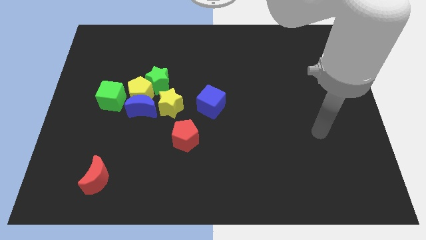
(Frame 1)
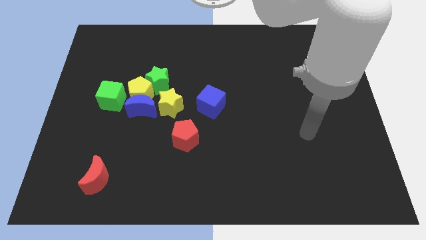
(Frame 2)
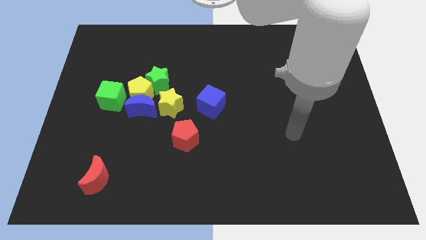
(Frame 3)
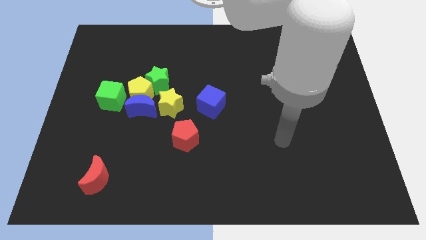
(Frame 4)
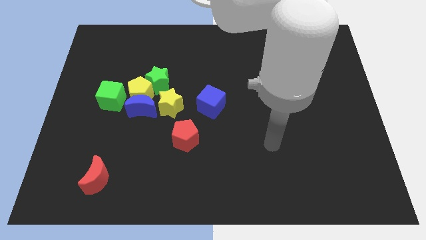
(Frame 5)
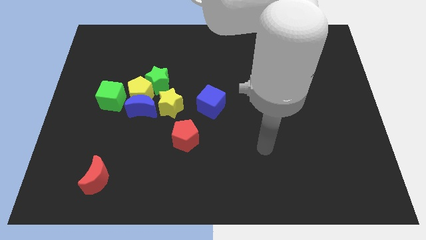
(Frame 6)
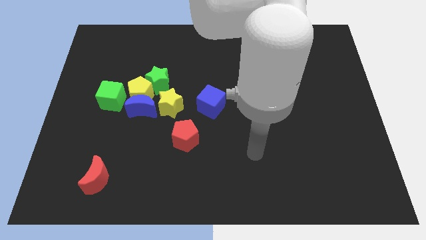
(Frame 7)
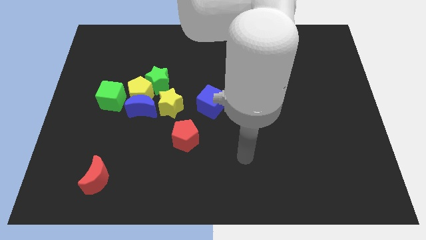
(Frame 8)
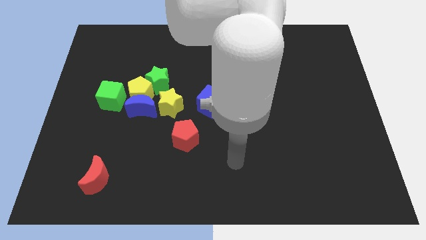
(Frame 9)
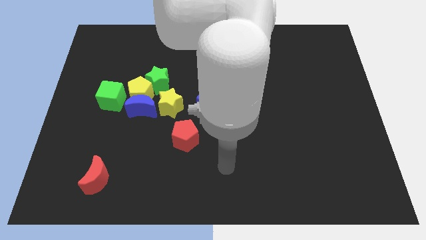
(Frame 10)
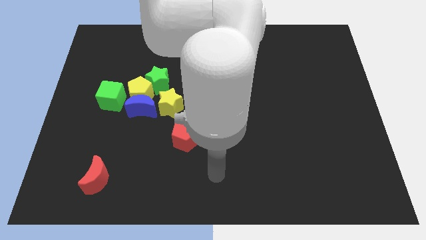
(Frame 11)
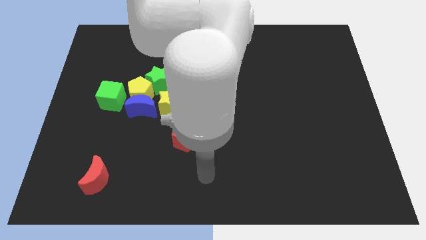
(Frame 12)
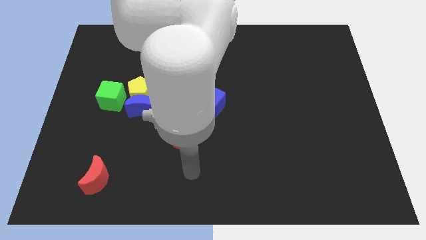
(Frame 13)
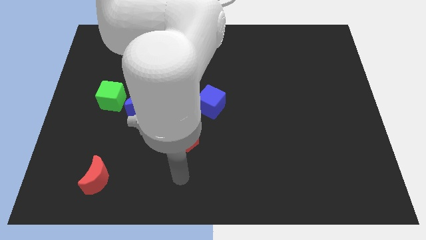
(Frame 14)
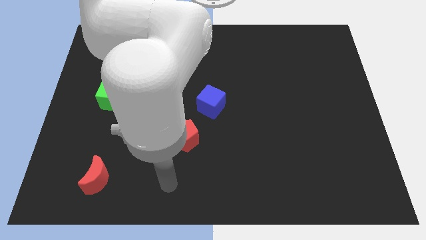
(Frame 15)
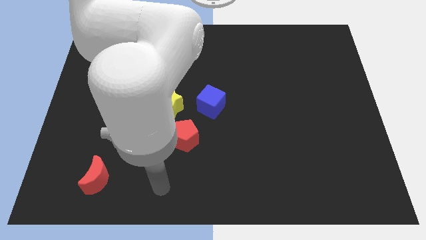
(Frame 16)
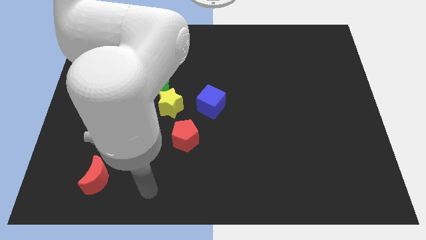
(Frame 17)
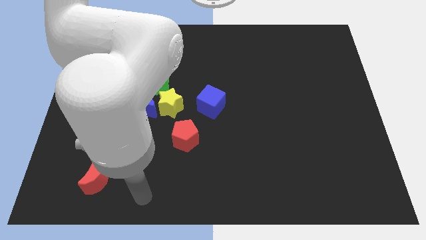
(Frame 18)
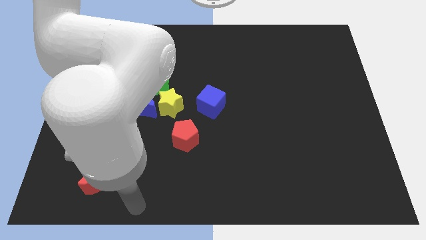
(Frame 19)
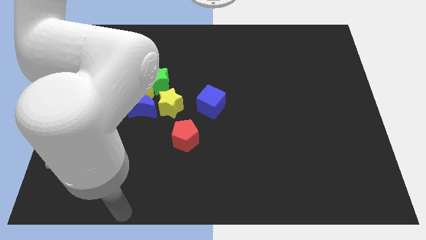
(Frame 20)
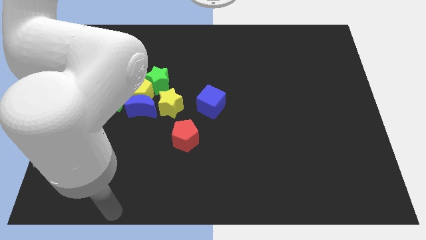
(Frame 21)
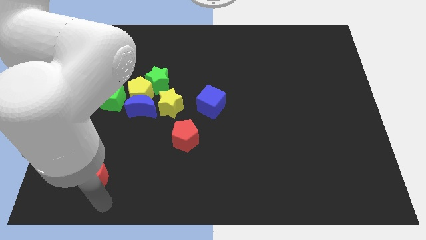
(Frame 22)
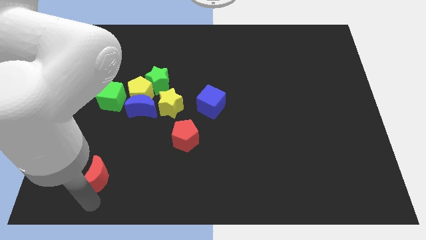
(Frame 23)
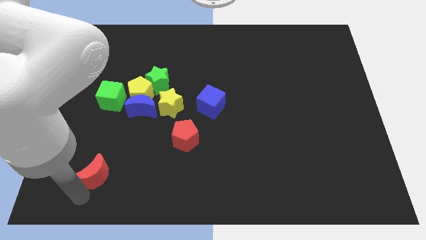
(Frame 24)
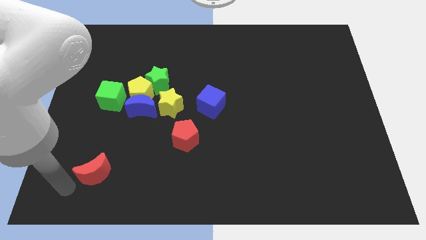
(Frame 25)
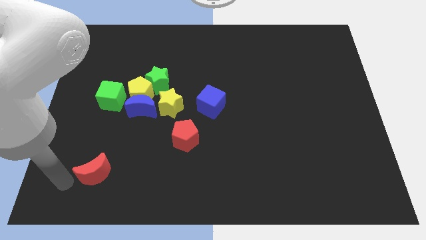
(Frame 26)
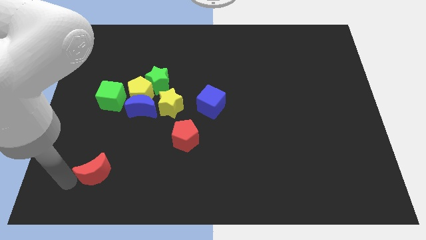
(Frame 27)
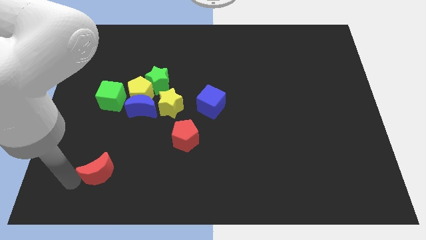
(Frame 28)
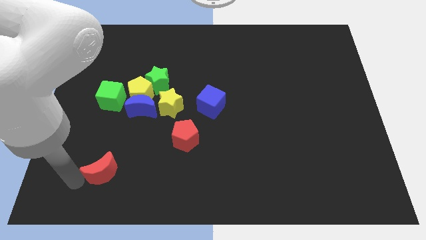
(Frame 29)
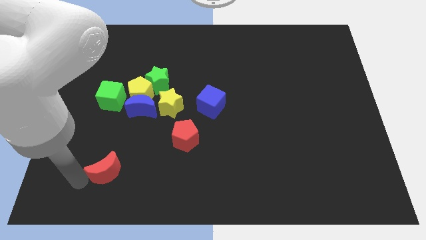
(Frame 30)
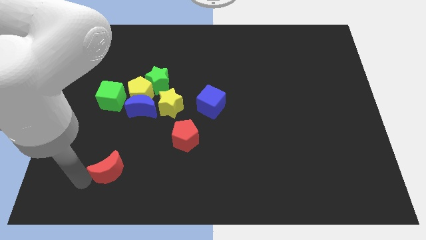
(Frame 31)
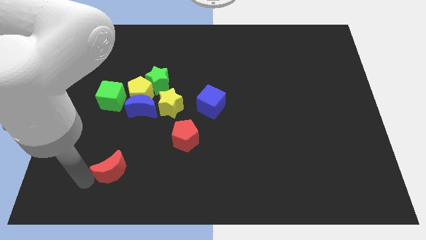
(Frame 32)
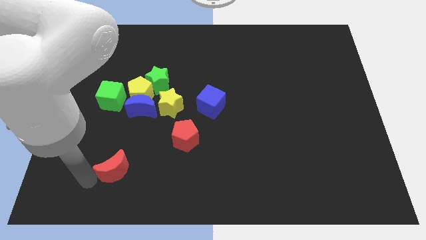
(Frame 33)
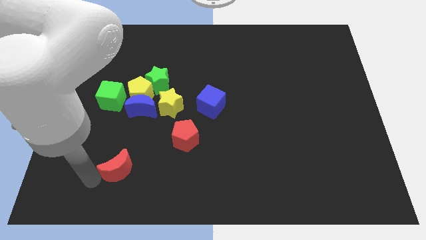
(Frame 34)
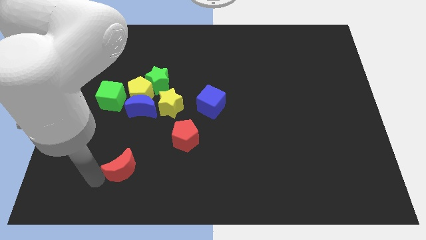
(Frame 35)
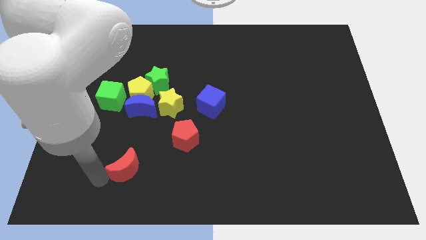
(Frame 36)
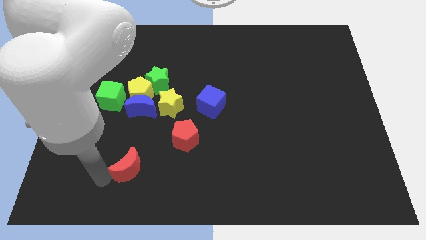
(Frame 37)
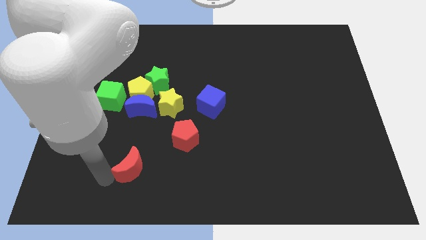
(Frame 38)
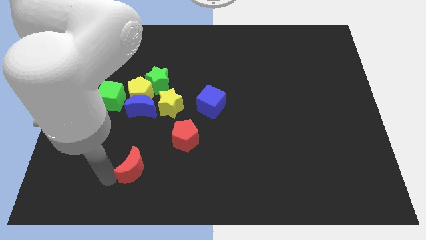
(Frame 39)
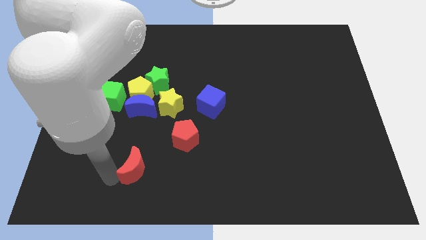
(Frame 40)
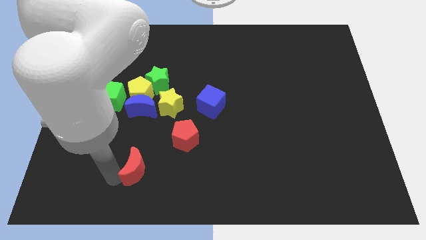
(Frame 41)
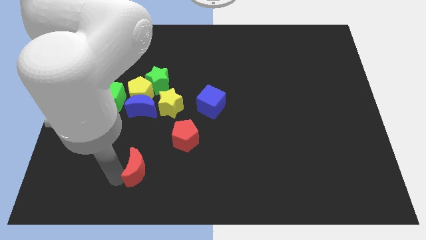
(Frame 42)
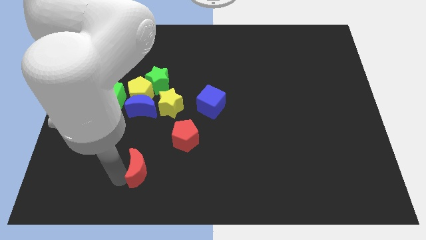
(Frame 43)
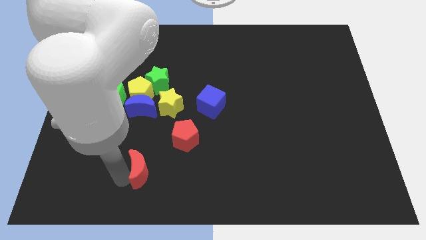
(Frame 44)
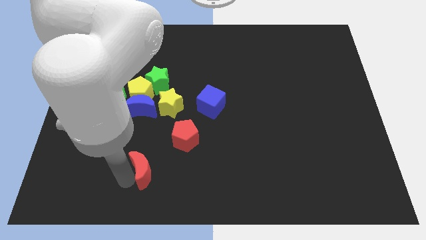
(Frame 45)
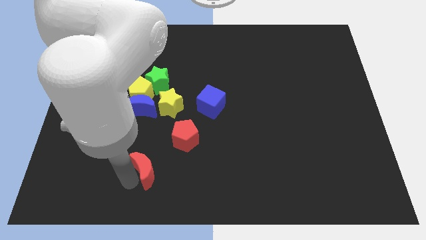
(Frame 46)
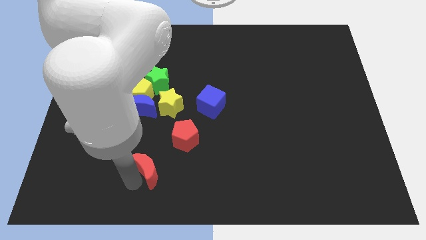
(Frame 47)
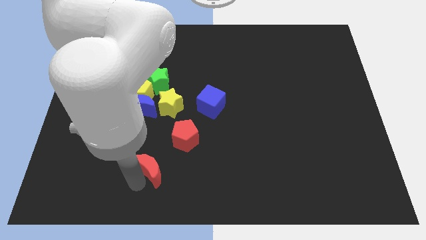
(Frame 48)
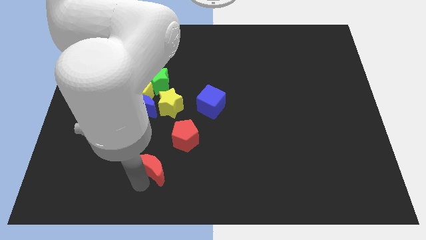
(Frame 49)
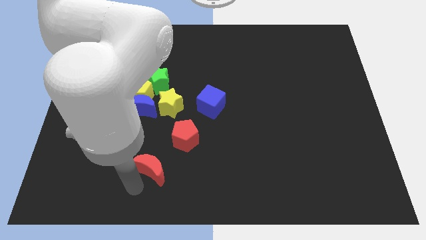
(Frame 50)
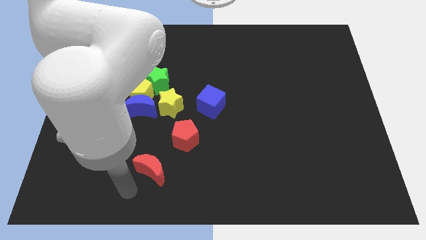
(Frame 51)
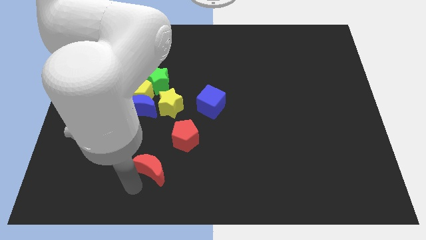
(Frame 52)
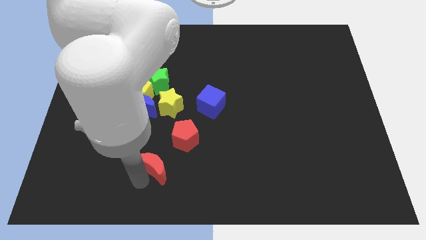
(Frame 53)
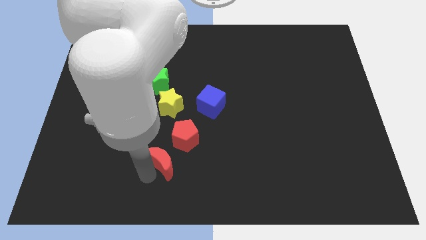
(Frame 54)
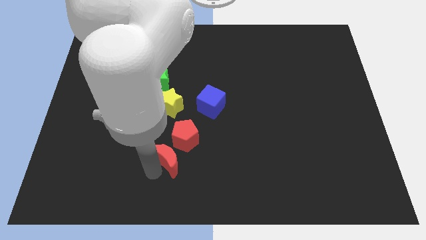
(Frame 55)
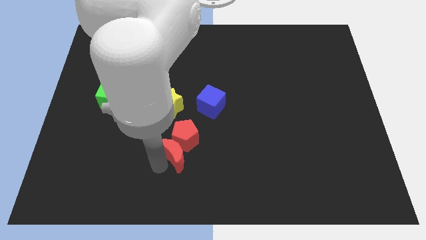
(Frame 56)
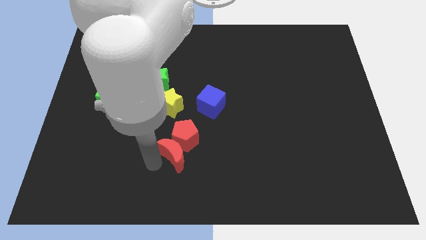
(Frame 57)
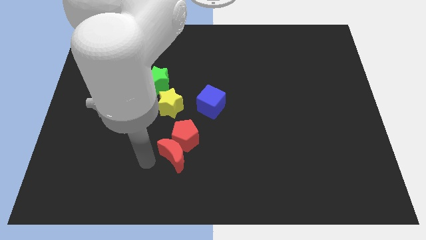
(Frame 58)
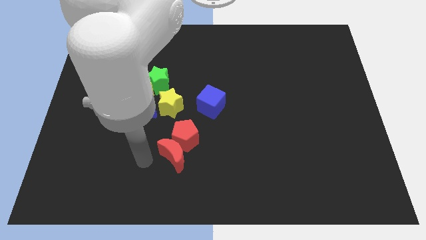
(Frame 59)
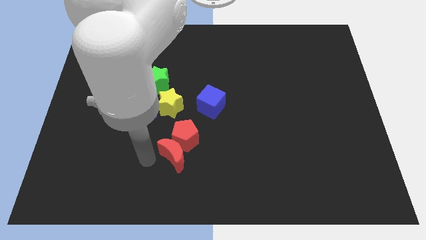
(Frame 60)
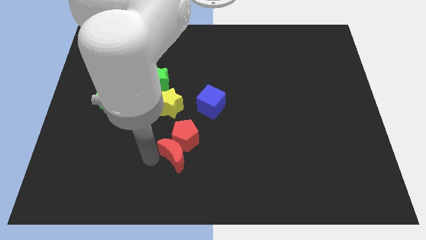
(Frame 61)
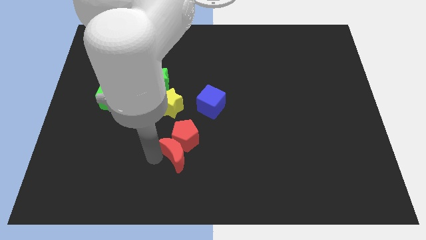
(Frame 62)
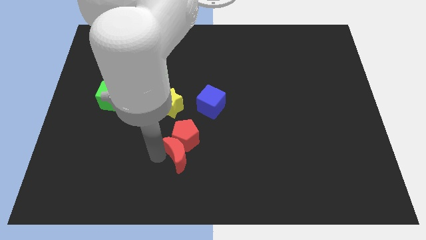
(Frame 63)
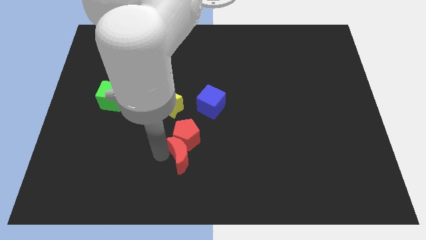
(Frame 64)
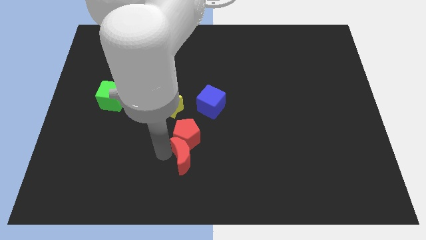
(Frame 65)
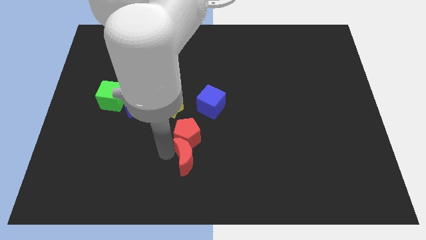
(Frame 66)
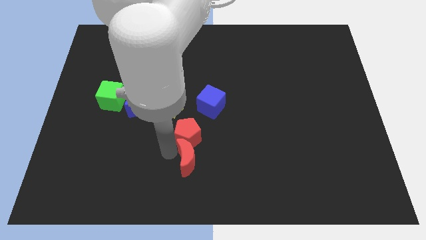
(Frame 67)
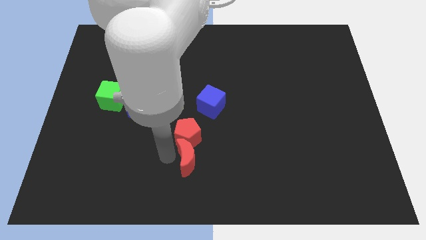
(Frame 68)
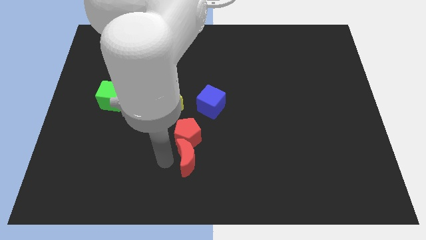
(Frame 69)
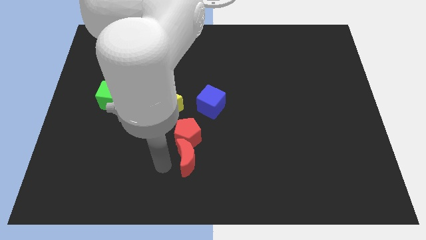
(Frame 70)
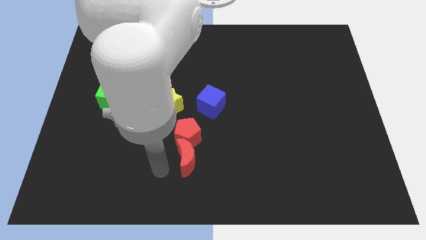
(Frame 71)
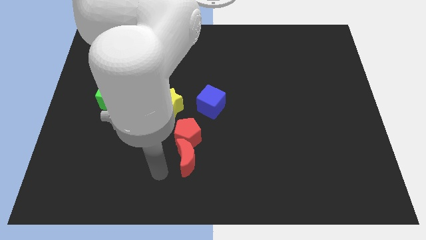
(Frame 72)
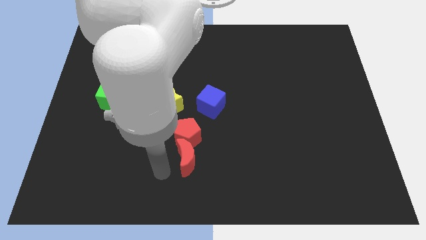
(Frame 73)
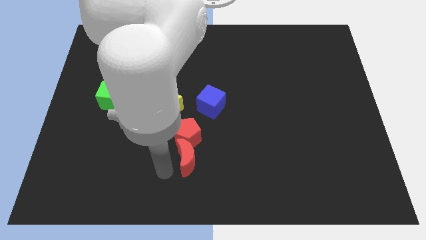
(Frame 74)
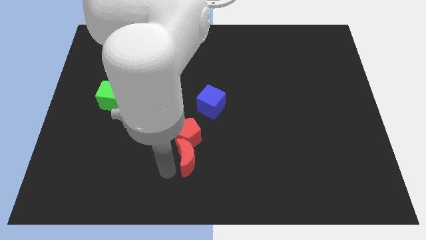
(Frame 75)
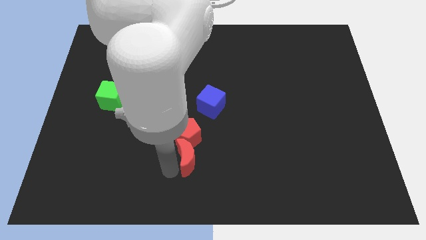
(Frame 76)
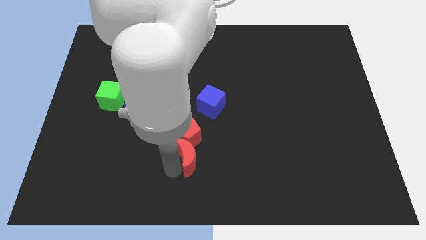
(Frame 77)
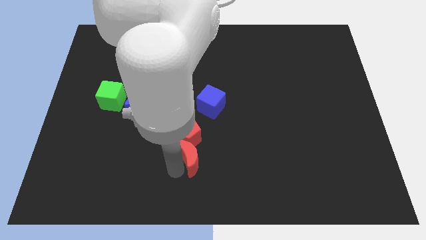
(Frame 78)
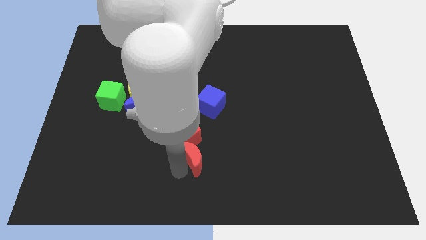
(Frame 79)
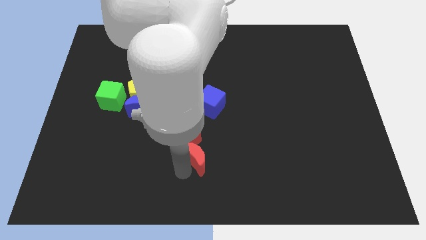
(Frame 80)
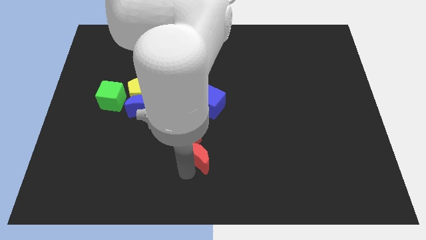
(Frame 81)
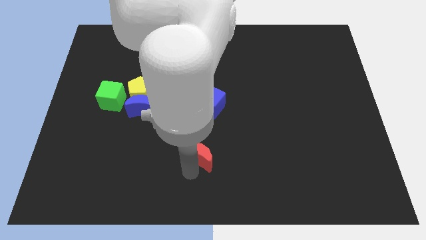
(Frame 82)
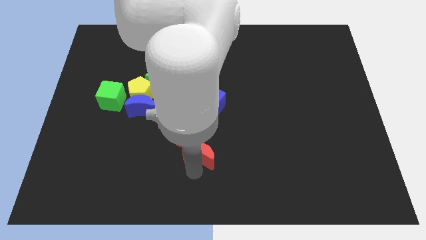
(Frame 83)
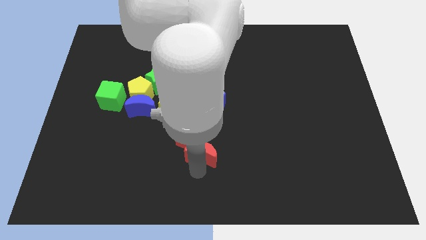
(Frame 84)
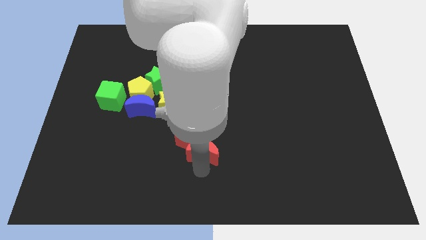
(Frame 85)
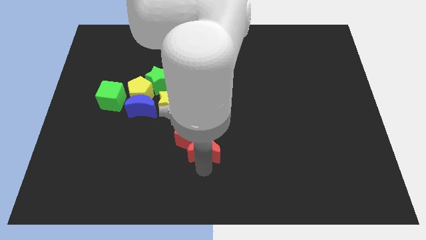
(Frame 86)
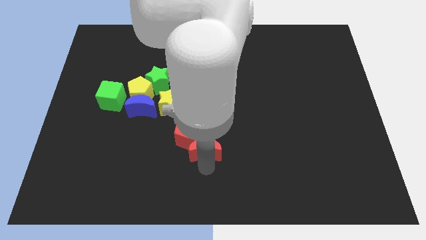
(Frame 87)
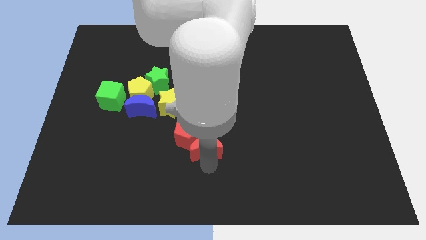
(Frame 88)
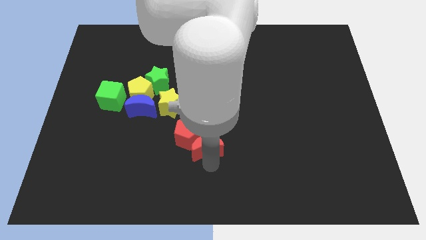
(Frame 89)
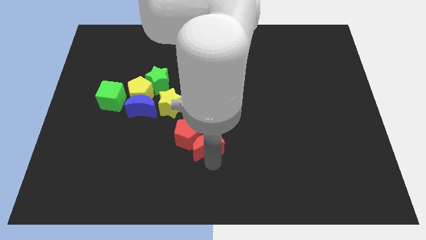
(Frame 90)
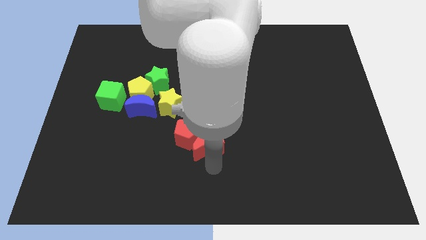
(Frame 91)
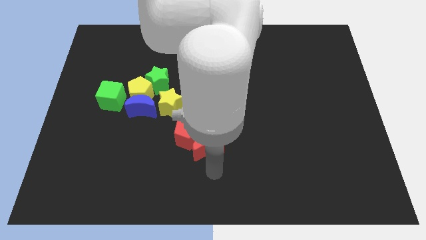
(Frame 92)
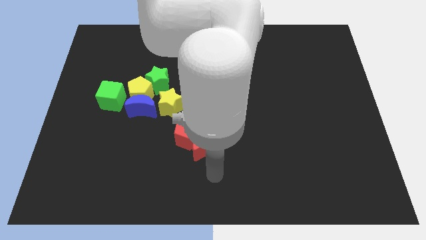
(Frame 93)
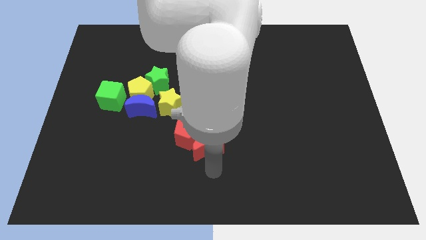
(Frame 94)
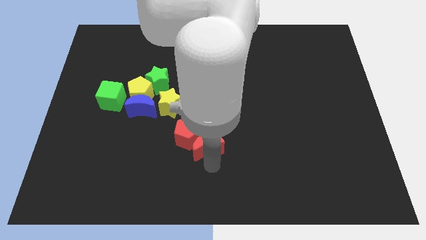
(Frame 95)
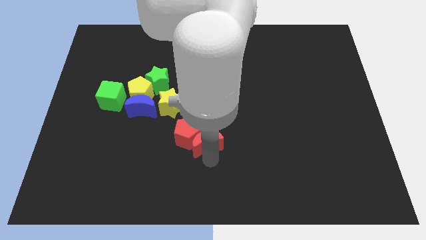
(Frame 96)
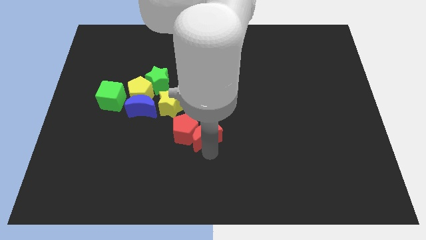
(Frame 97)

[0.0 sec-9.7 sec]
move the red moon diagonally down and to the right of the yellow star
